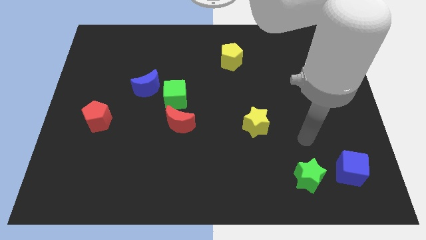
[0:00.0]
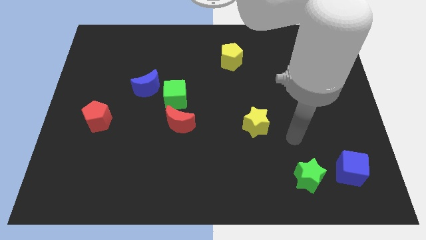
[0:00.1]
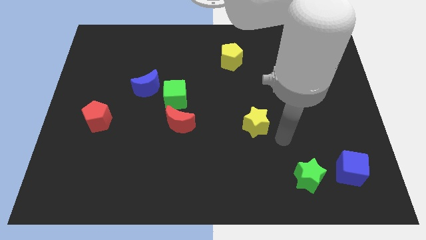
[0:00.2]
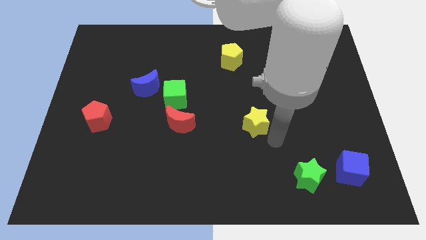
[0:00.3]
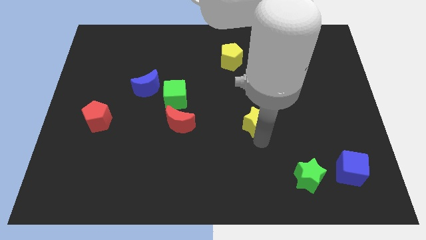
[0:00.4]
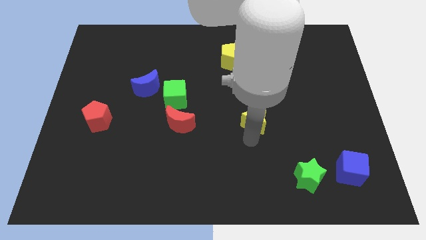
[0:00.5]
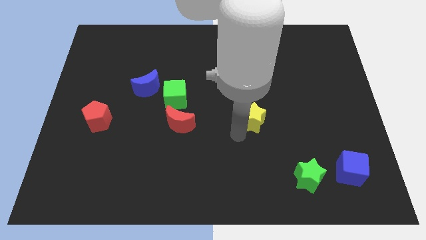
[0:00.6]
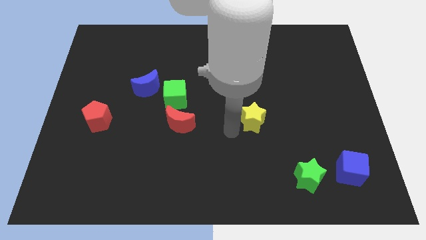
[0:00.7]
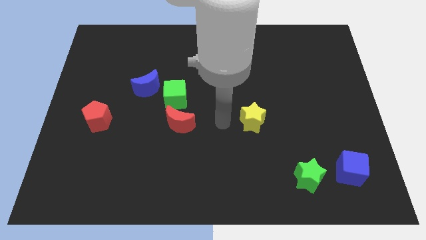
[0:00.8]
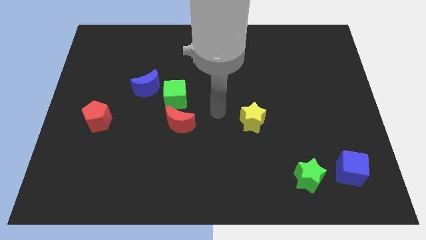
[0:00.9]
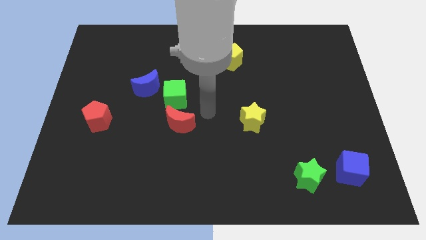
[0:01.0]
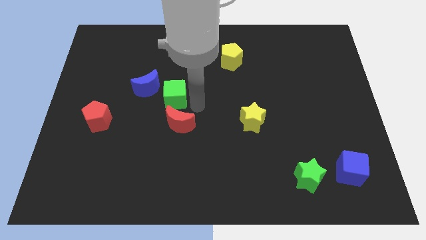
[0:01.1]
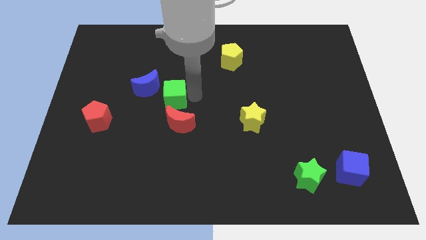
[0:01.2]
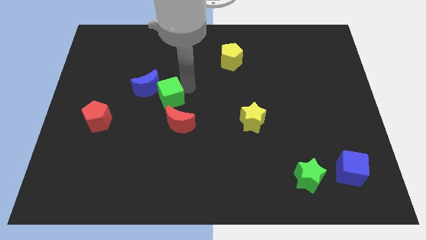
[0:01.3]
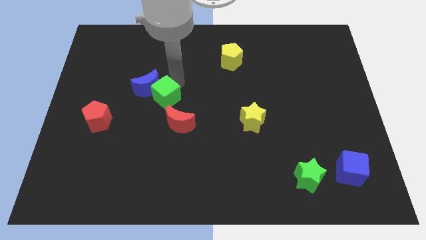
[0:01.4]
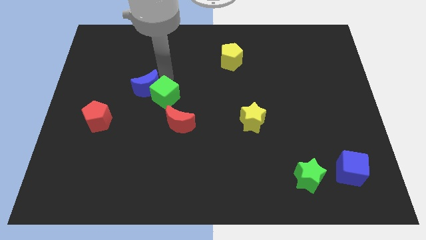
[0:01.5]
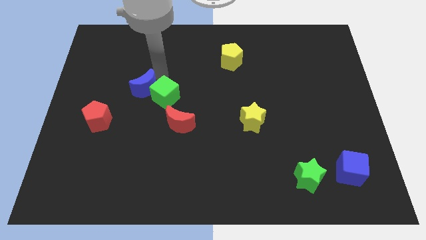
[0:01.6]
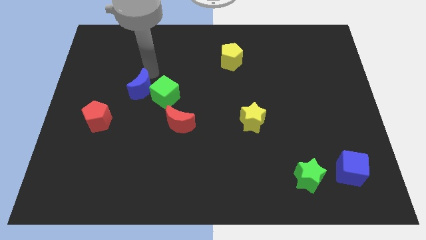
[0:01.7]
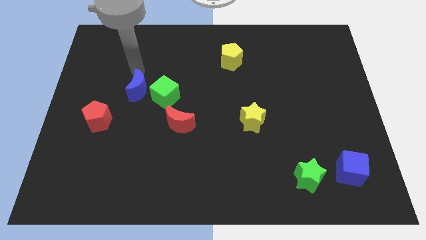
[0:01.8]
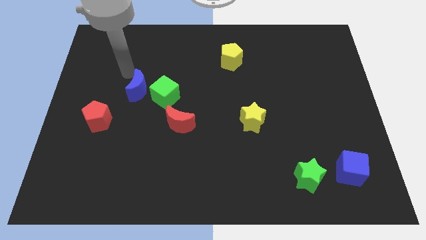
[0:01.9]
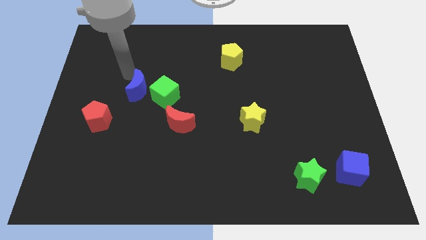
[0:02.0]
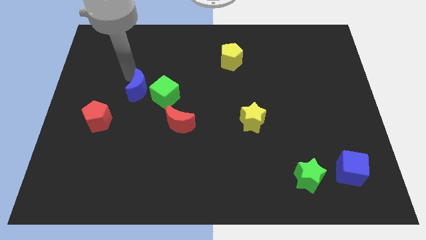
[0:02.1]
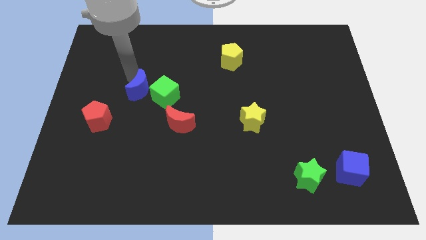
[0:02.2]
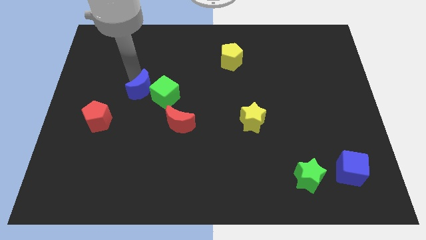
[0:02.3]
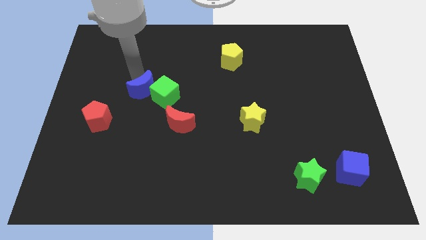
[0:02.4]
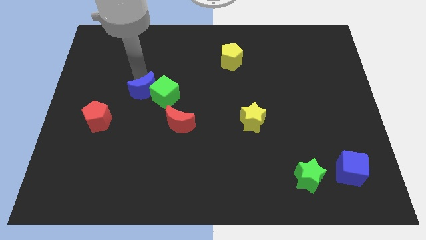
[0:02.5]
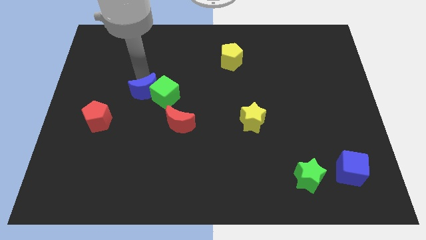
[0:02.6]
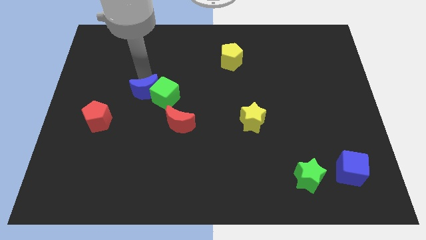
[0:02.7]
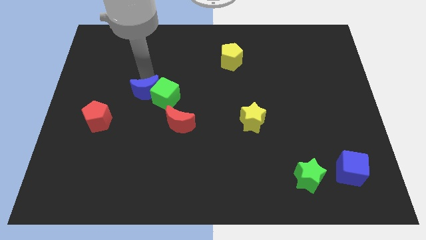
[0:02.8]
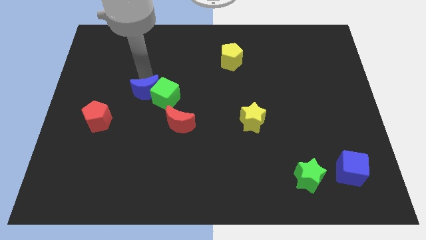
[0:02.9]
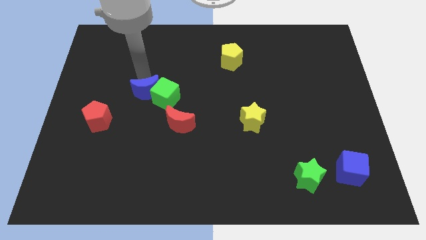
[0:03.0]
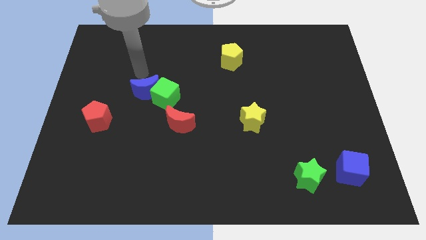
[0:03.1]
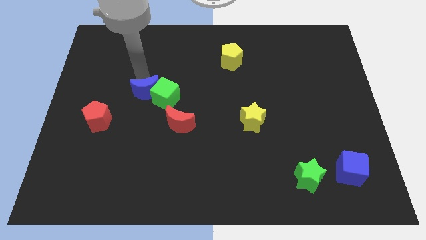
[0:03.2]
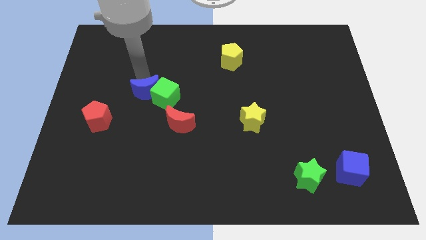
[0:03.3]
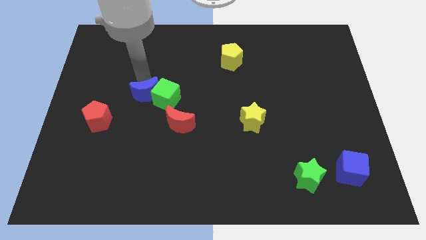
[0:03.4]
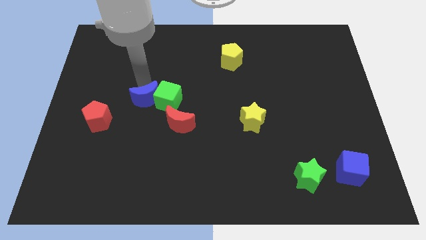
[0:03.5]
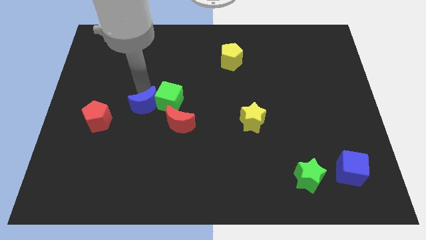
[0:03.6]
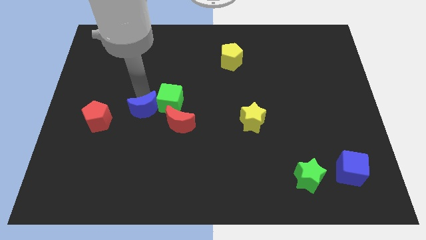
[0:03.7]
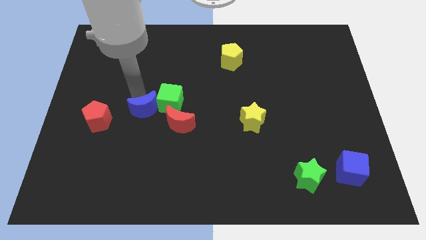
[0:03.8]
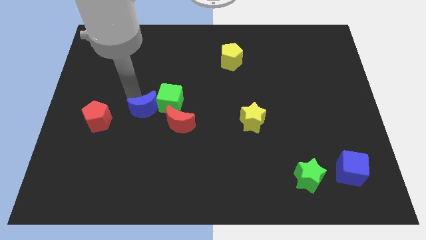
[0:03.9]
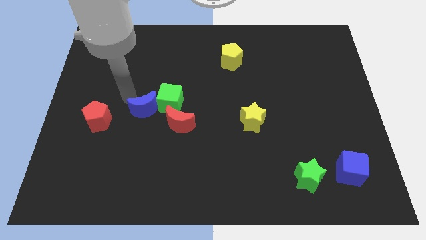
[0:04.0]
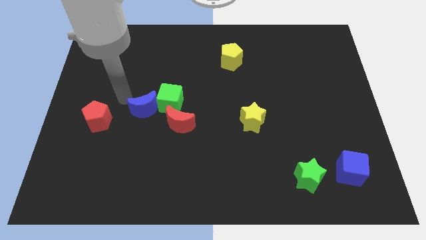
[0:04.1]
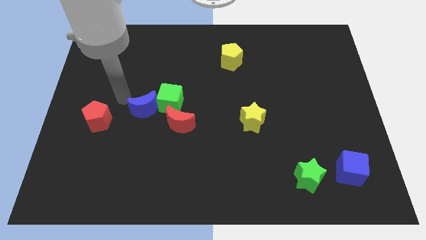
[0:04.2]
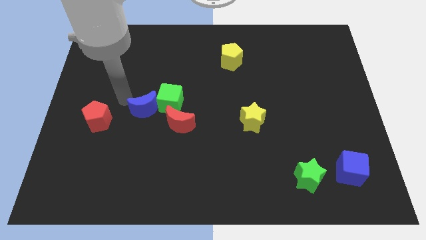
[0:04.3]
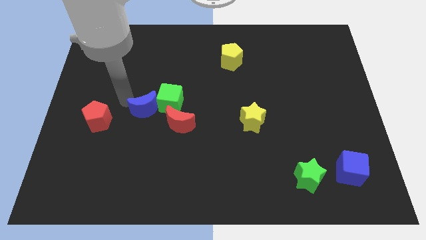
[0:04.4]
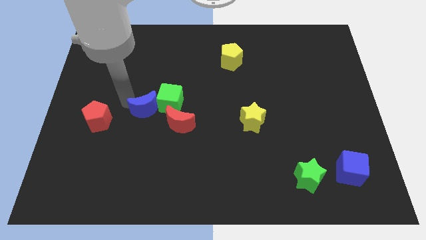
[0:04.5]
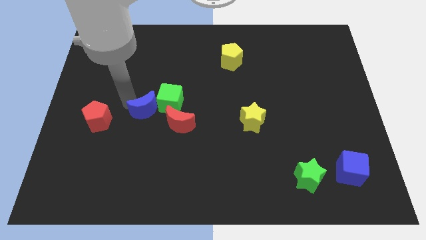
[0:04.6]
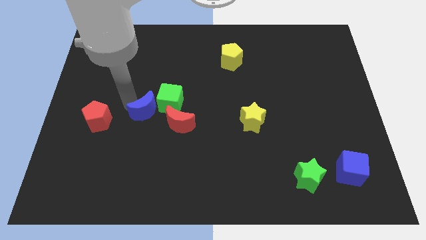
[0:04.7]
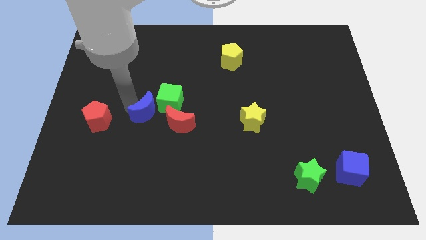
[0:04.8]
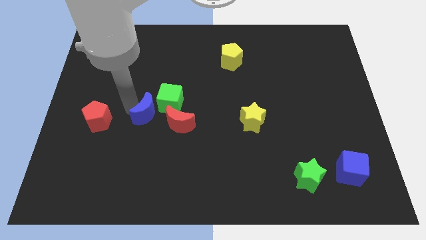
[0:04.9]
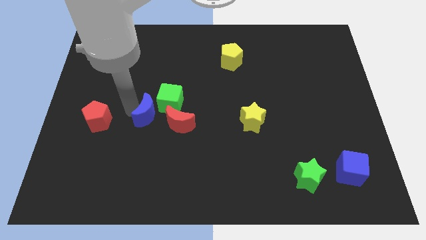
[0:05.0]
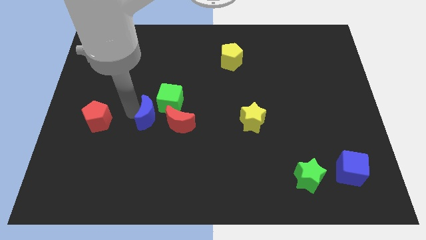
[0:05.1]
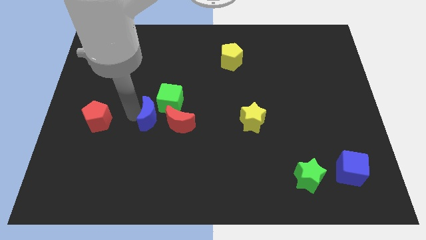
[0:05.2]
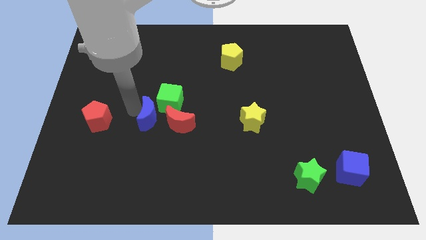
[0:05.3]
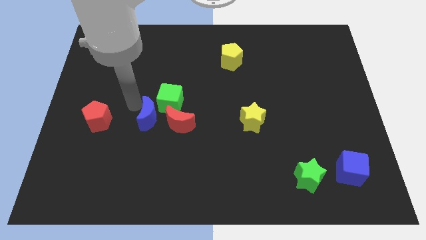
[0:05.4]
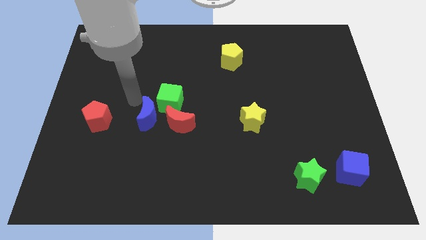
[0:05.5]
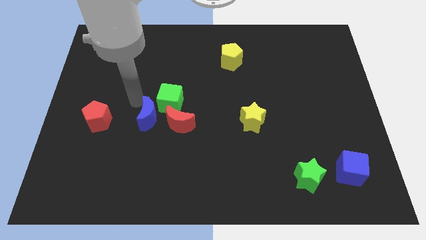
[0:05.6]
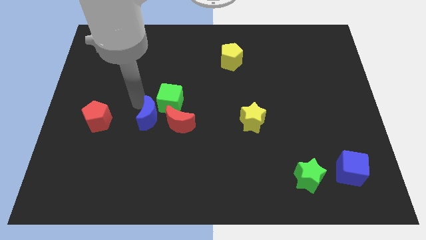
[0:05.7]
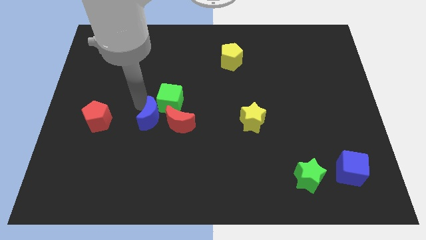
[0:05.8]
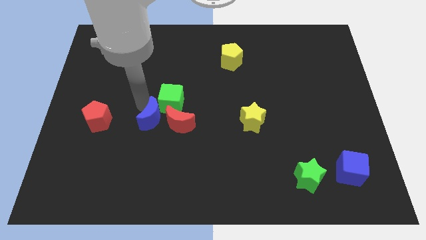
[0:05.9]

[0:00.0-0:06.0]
push the blue moon down and right a little bit

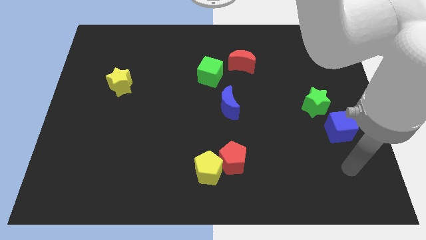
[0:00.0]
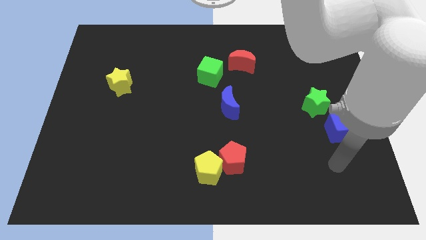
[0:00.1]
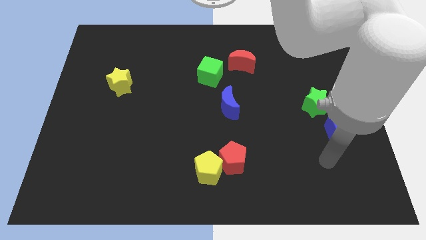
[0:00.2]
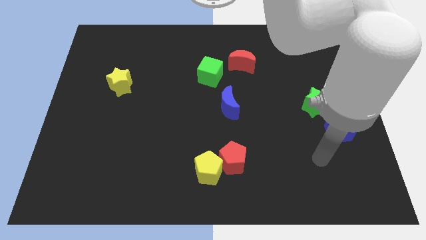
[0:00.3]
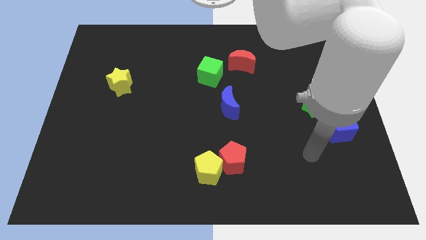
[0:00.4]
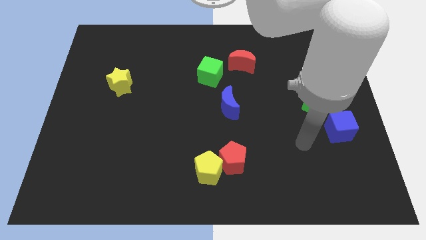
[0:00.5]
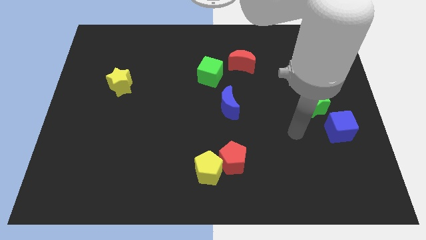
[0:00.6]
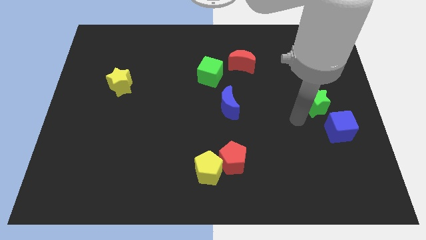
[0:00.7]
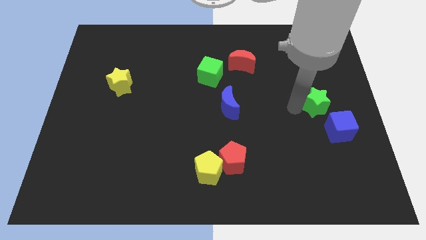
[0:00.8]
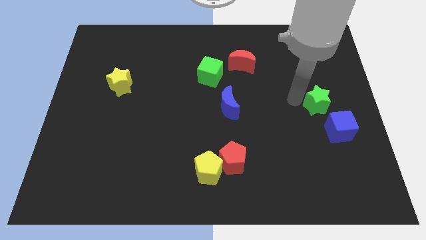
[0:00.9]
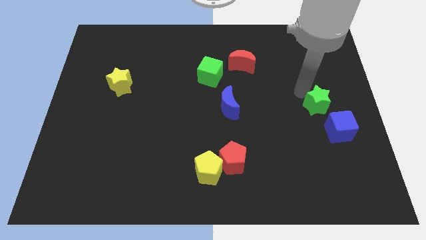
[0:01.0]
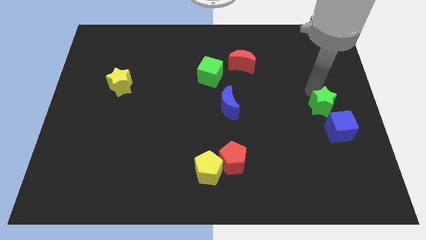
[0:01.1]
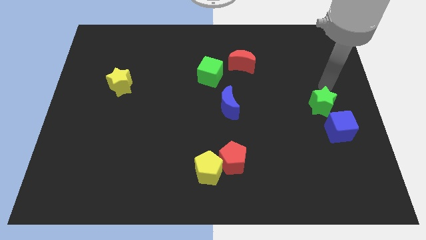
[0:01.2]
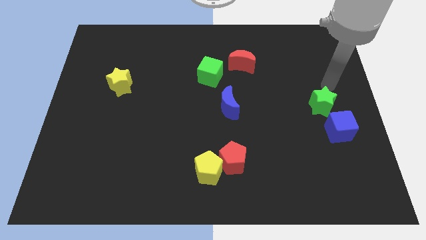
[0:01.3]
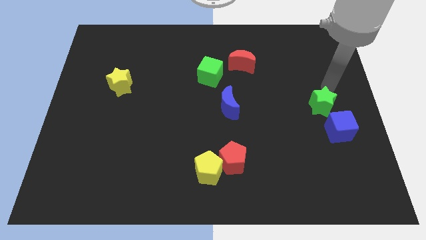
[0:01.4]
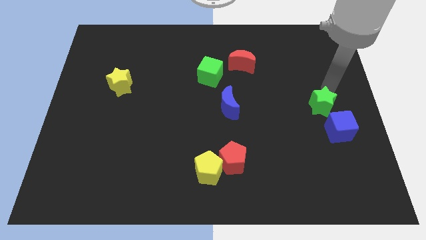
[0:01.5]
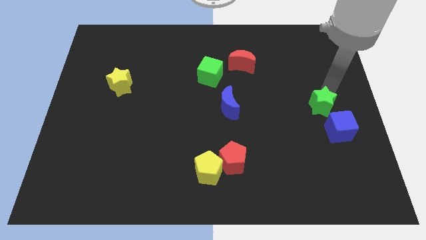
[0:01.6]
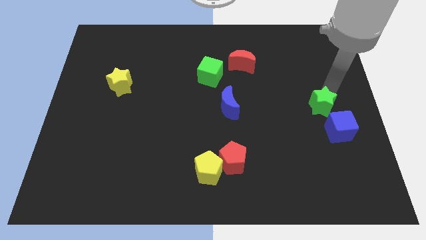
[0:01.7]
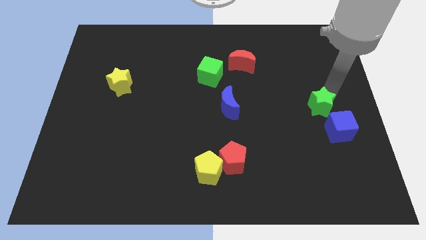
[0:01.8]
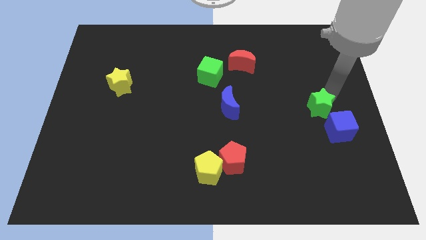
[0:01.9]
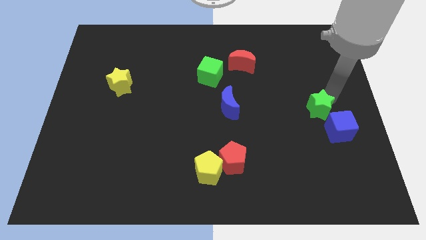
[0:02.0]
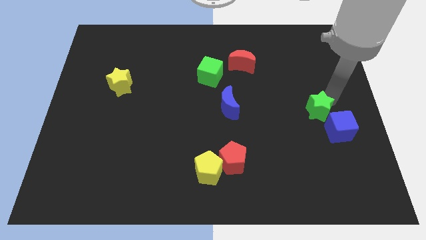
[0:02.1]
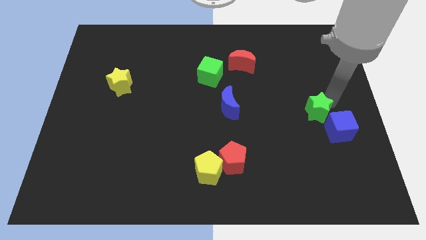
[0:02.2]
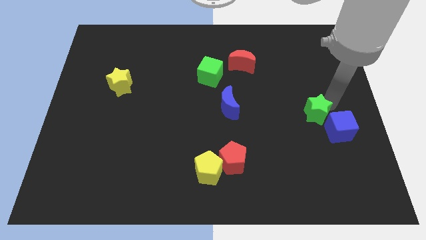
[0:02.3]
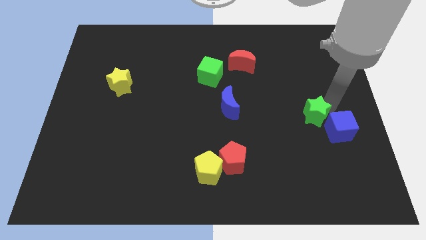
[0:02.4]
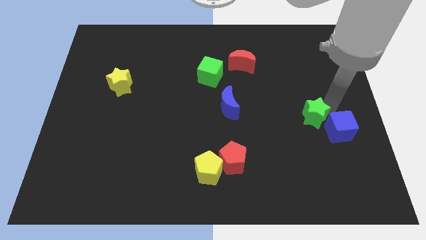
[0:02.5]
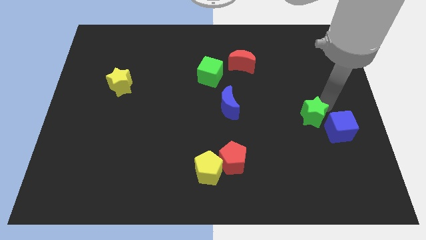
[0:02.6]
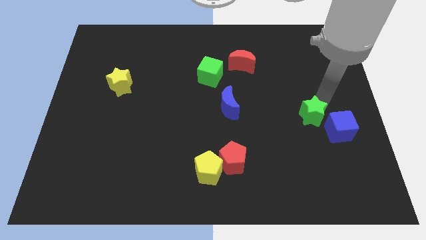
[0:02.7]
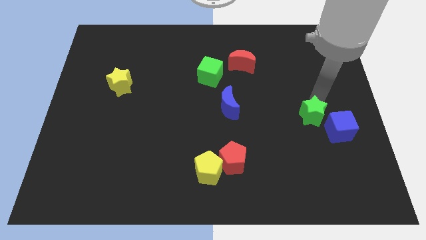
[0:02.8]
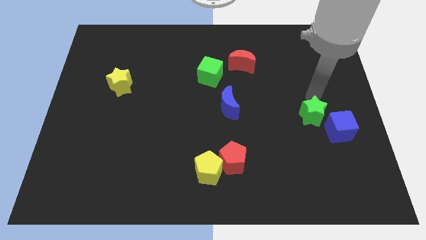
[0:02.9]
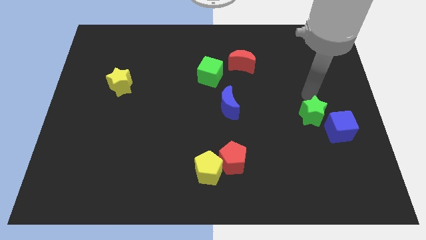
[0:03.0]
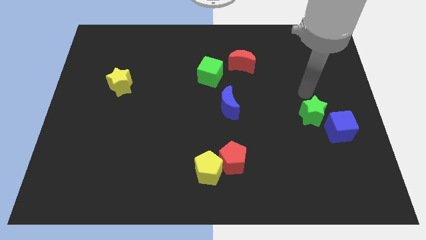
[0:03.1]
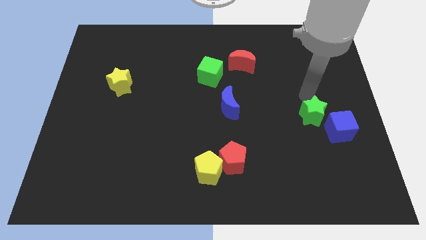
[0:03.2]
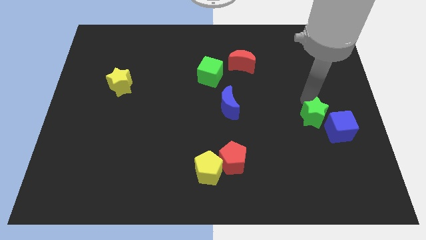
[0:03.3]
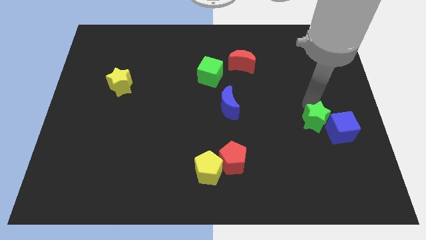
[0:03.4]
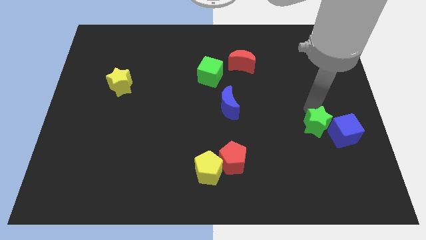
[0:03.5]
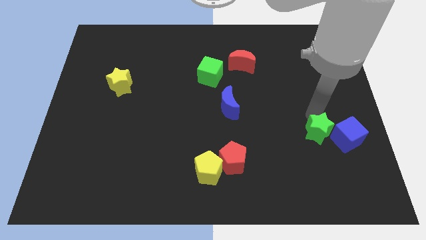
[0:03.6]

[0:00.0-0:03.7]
push the green star down slightly
